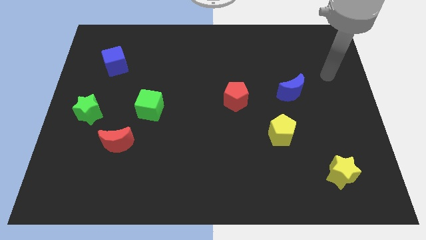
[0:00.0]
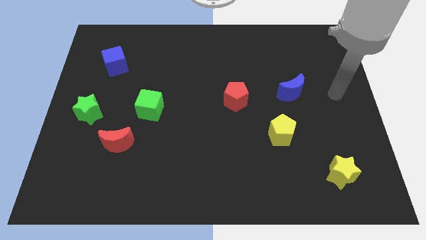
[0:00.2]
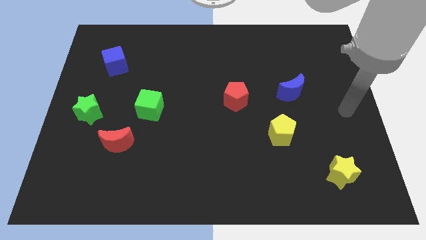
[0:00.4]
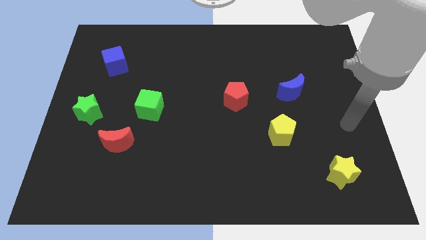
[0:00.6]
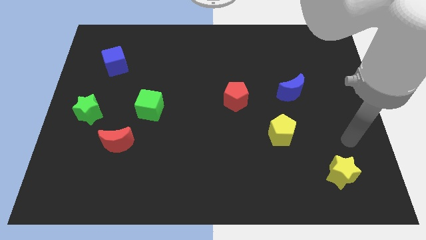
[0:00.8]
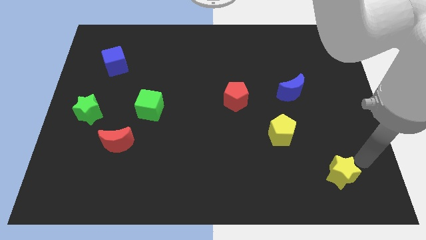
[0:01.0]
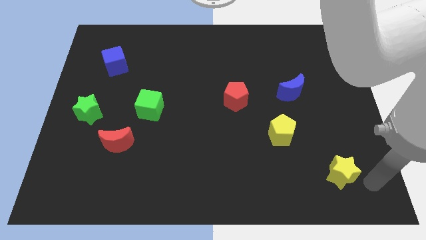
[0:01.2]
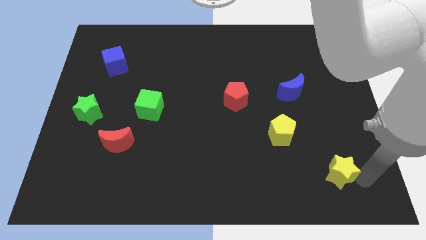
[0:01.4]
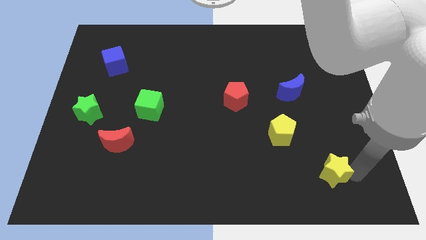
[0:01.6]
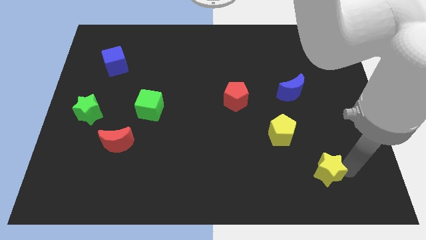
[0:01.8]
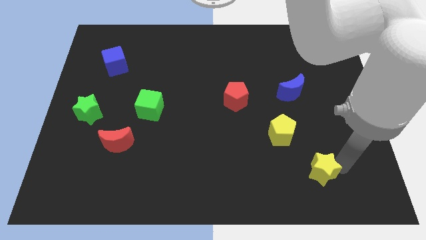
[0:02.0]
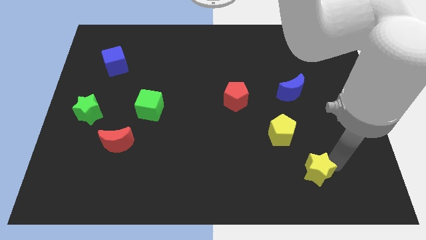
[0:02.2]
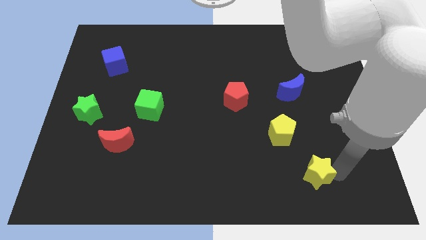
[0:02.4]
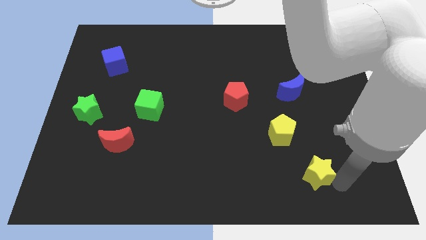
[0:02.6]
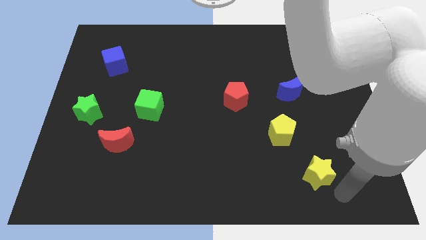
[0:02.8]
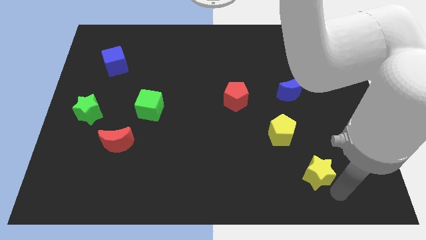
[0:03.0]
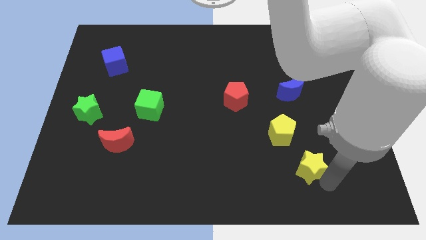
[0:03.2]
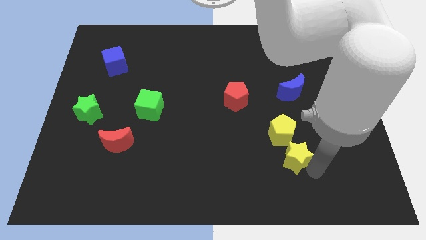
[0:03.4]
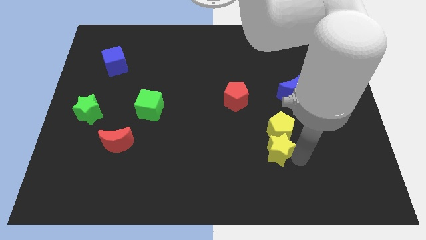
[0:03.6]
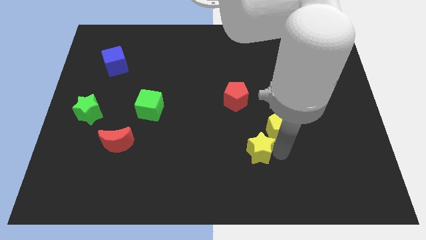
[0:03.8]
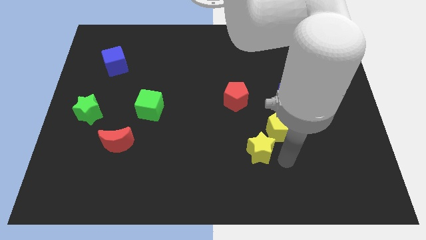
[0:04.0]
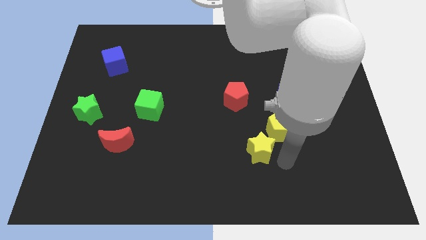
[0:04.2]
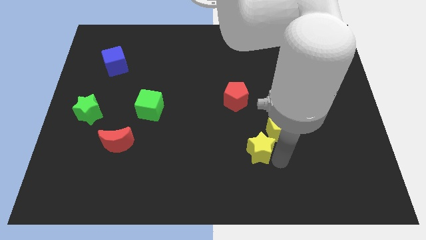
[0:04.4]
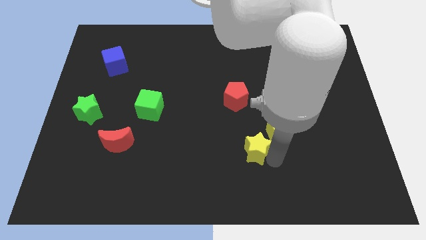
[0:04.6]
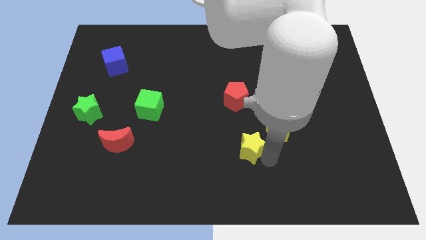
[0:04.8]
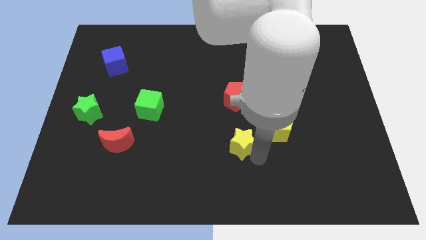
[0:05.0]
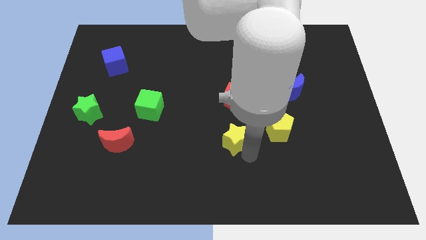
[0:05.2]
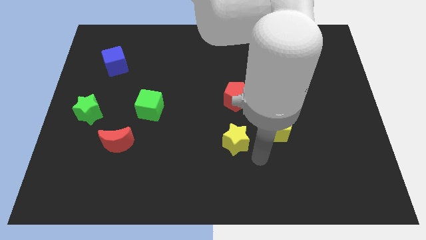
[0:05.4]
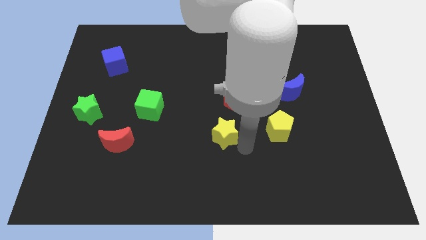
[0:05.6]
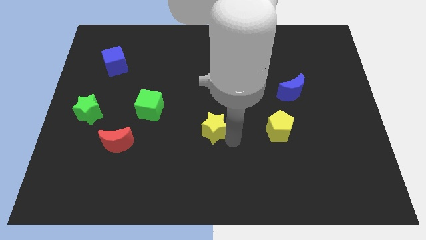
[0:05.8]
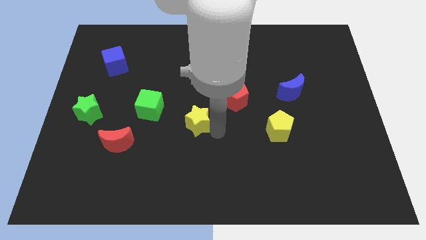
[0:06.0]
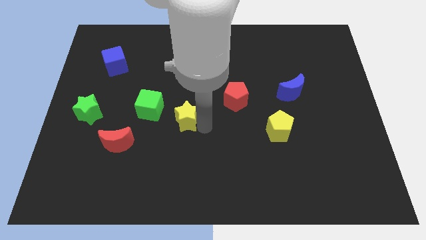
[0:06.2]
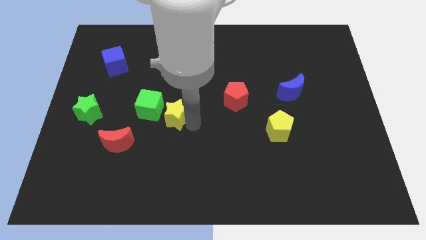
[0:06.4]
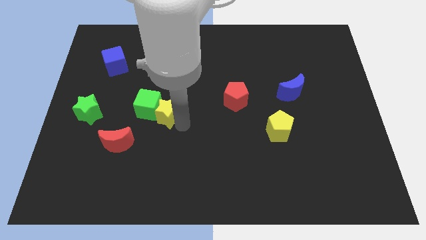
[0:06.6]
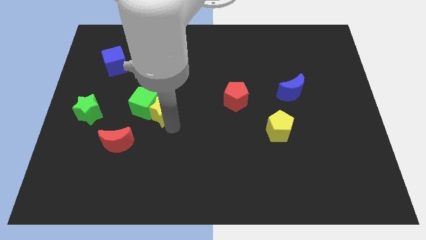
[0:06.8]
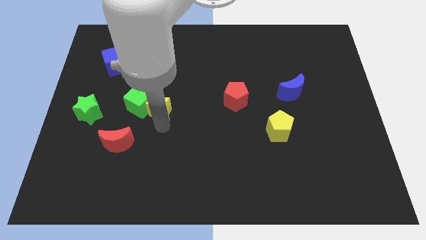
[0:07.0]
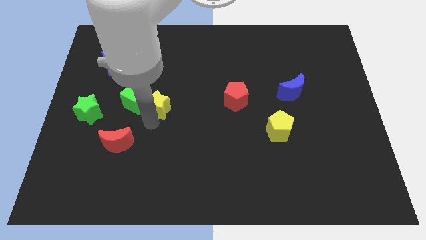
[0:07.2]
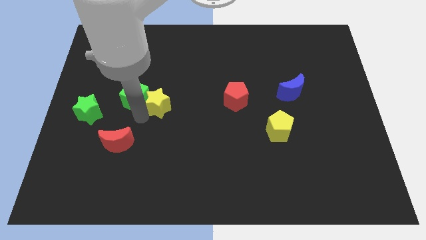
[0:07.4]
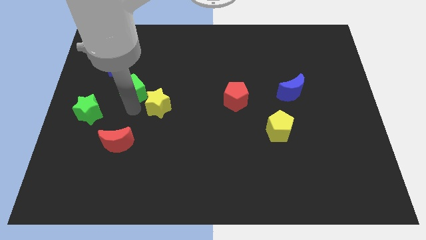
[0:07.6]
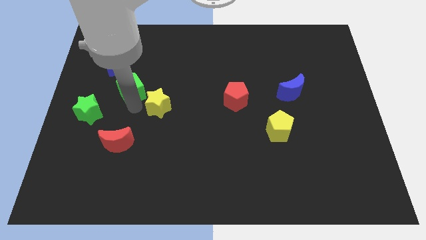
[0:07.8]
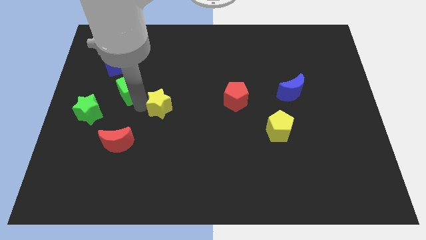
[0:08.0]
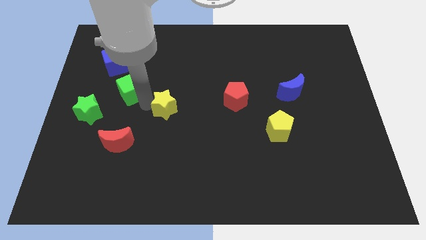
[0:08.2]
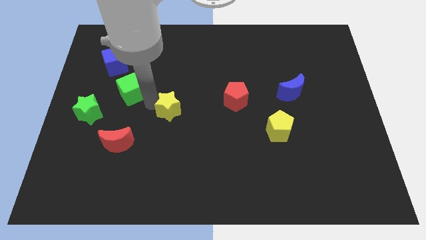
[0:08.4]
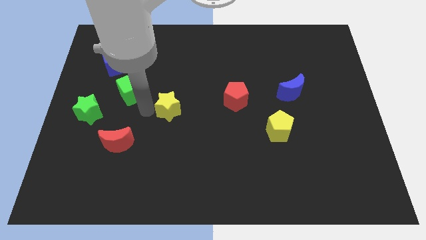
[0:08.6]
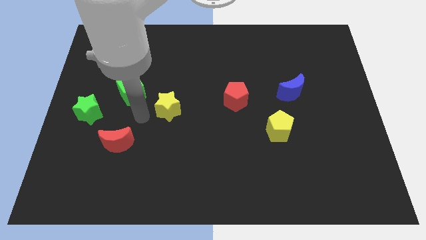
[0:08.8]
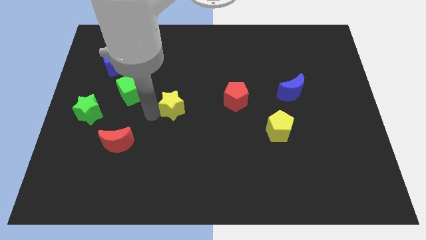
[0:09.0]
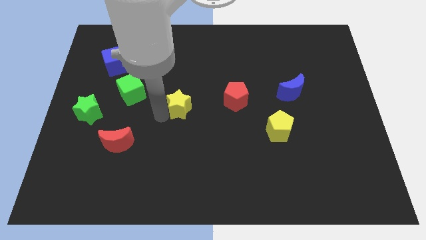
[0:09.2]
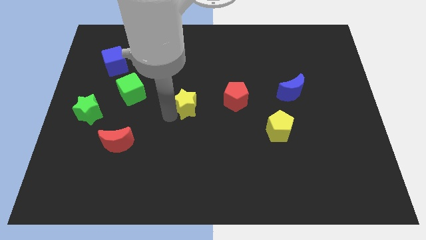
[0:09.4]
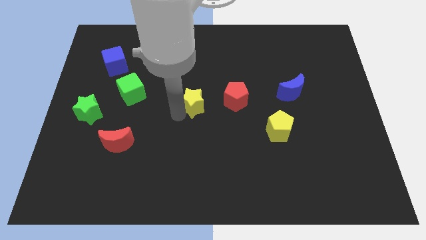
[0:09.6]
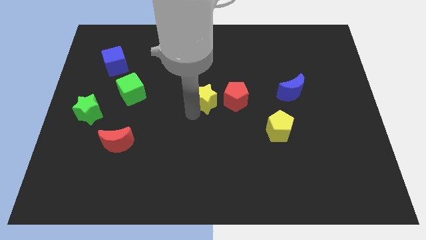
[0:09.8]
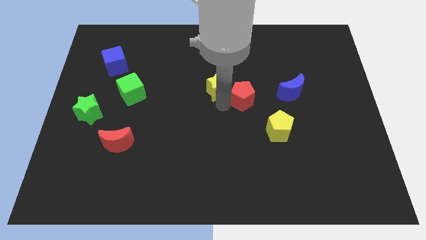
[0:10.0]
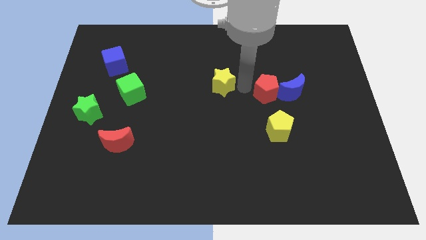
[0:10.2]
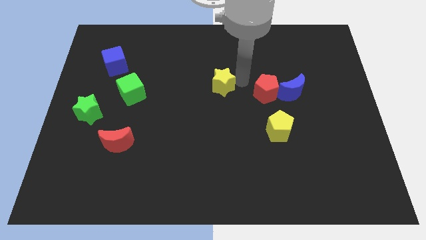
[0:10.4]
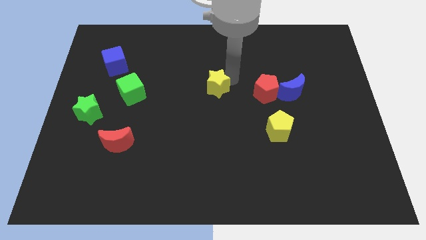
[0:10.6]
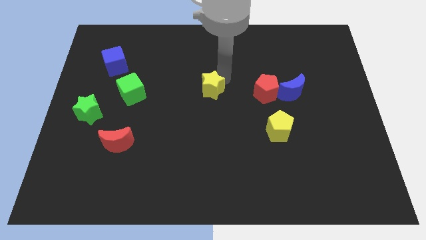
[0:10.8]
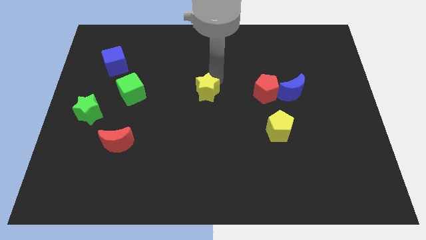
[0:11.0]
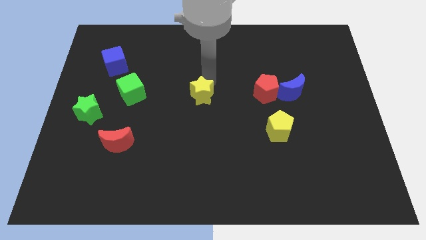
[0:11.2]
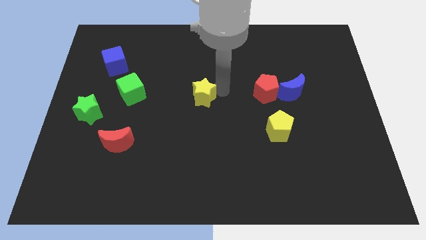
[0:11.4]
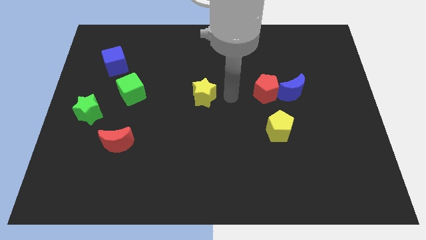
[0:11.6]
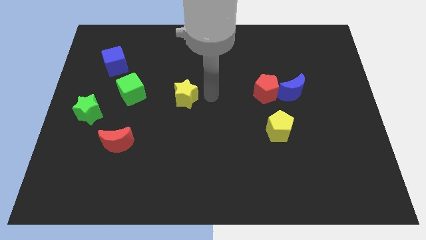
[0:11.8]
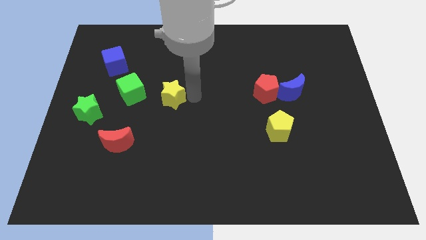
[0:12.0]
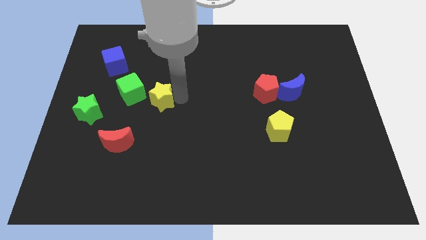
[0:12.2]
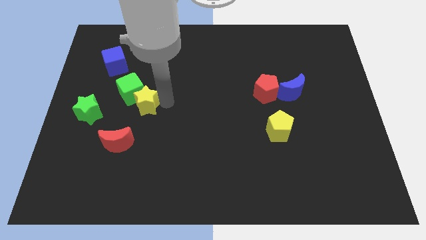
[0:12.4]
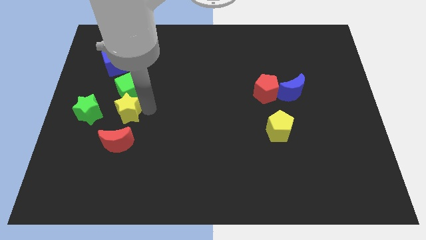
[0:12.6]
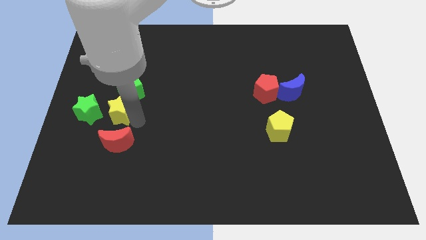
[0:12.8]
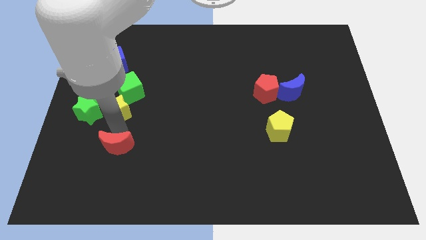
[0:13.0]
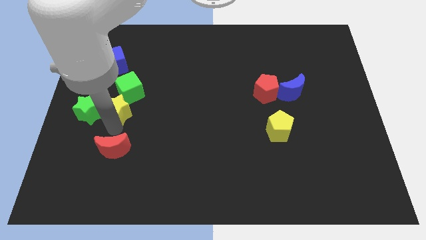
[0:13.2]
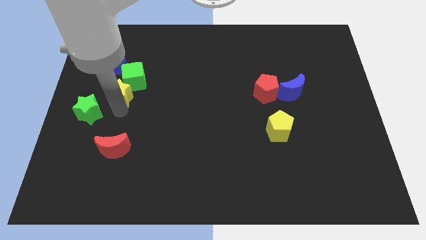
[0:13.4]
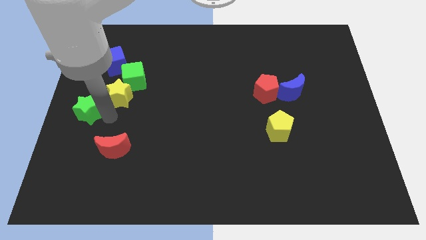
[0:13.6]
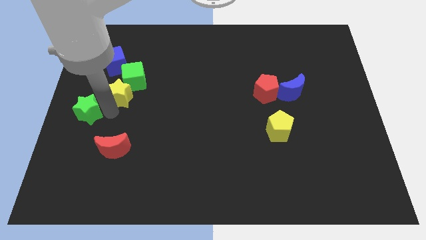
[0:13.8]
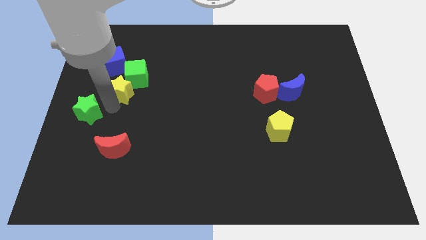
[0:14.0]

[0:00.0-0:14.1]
put the yellow star to the bottom right side of the blue cube

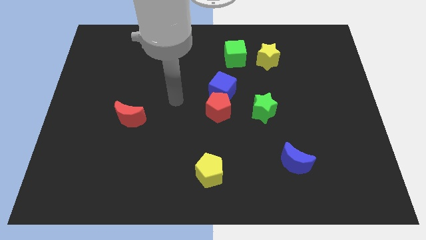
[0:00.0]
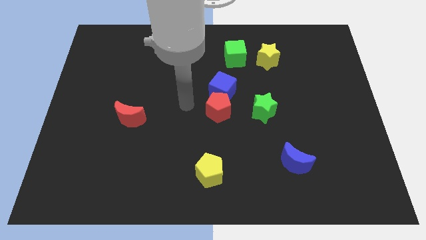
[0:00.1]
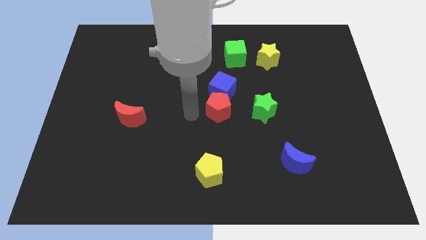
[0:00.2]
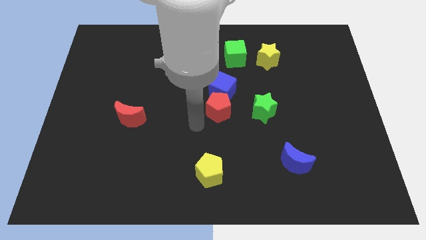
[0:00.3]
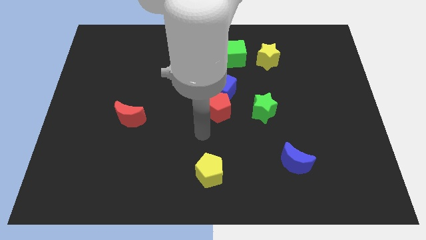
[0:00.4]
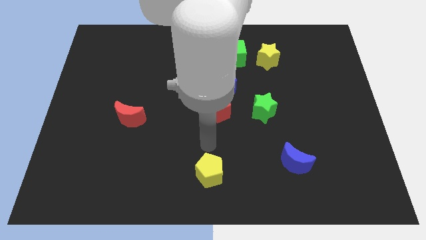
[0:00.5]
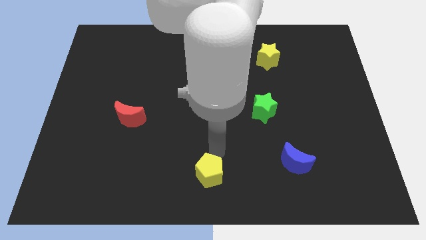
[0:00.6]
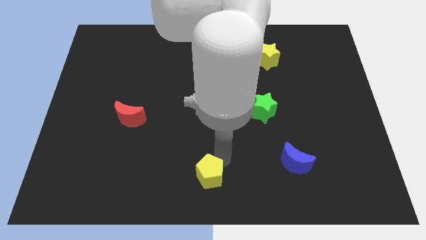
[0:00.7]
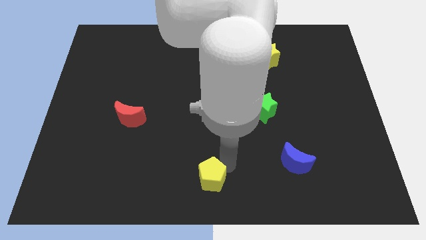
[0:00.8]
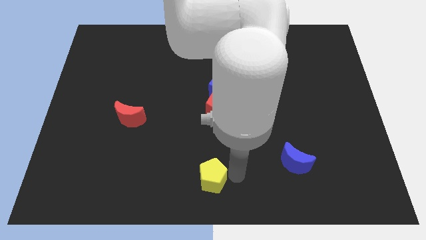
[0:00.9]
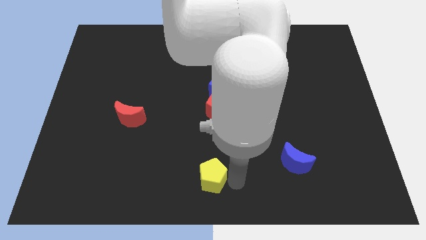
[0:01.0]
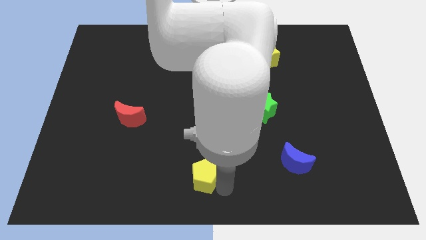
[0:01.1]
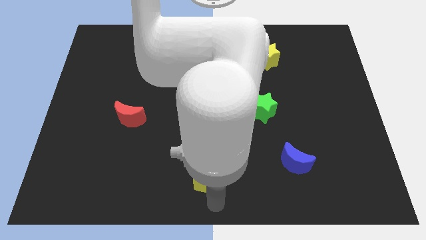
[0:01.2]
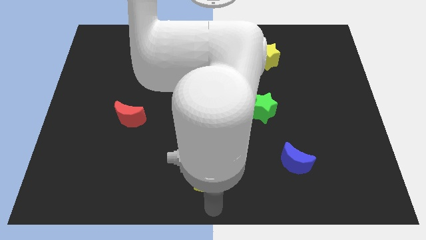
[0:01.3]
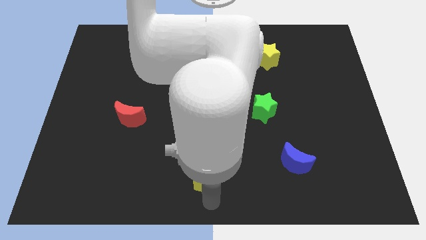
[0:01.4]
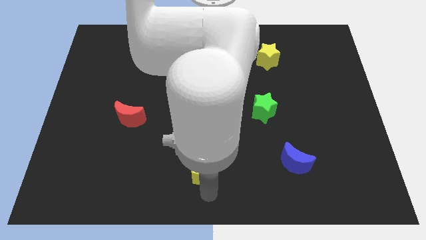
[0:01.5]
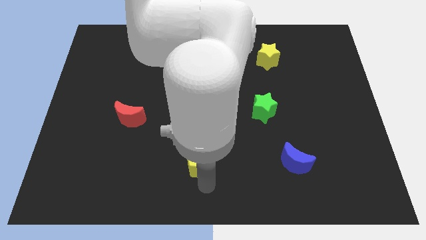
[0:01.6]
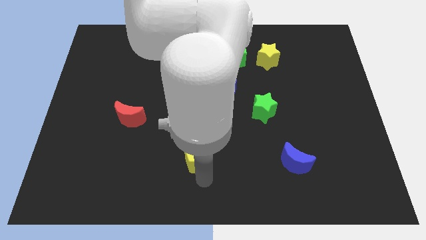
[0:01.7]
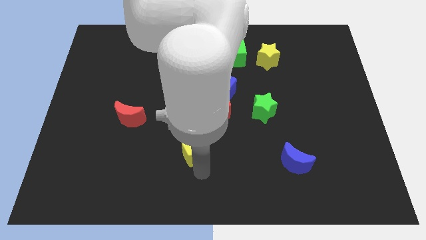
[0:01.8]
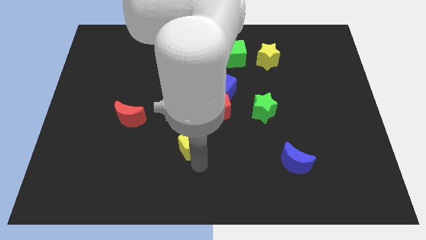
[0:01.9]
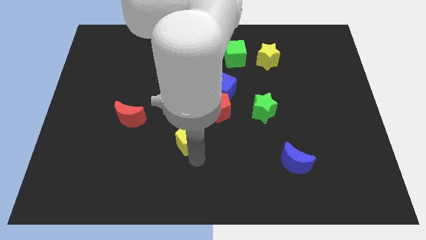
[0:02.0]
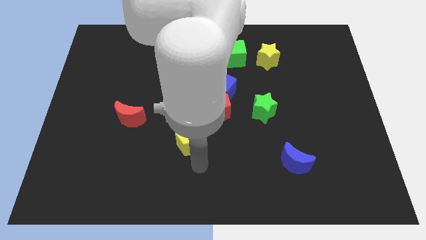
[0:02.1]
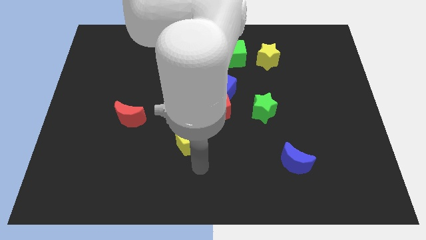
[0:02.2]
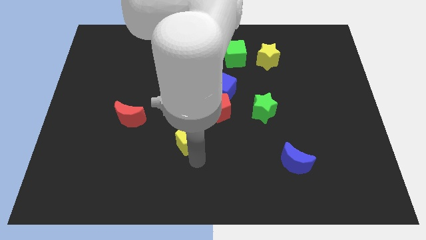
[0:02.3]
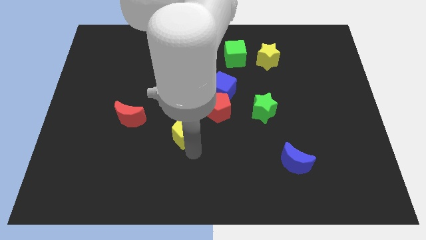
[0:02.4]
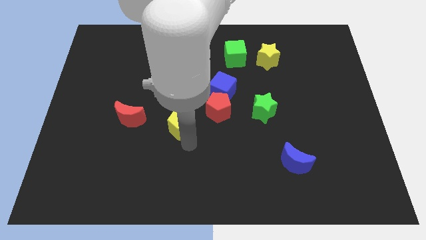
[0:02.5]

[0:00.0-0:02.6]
put the yellow pentagon to the left side of the red pentagon
